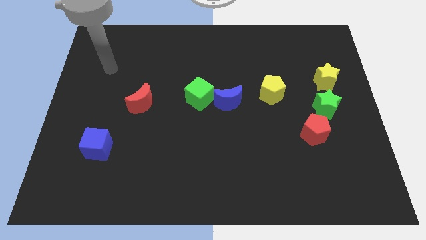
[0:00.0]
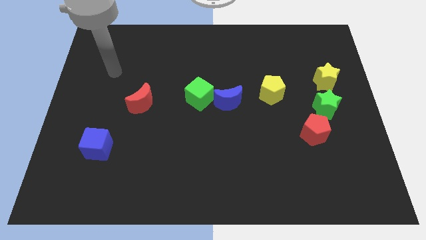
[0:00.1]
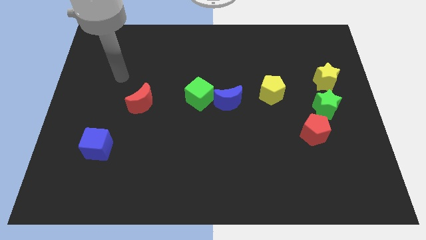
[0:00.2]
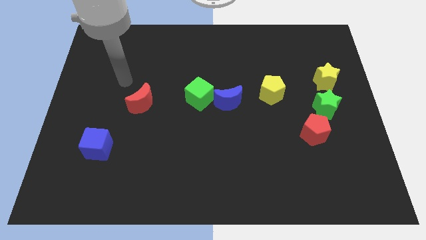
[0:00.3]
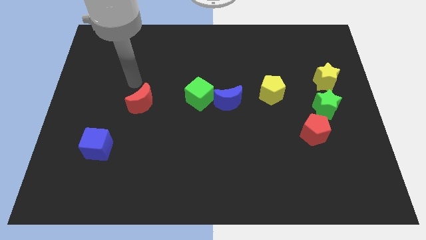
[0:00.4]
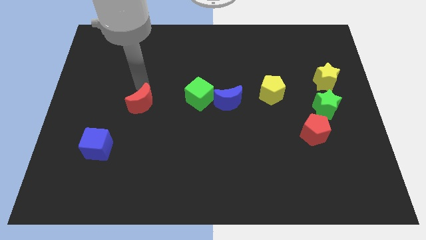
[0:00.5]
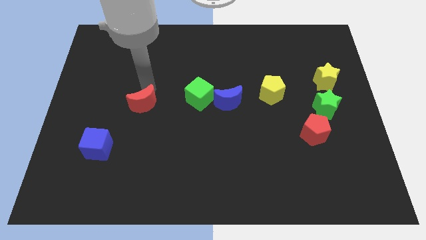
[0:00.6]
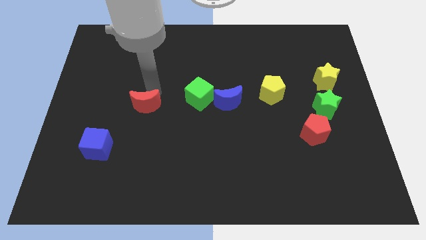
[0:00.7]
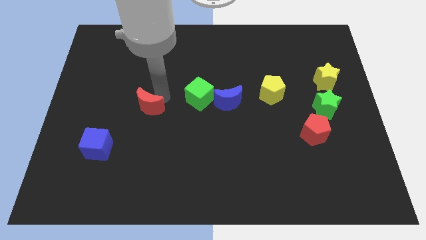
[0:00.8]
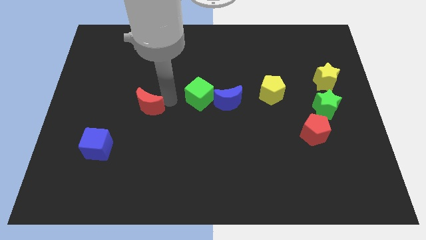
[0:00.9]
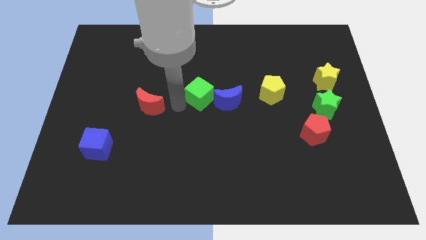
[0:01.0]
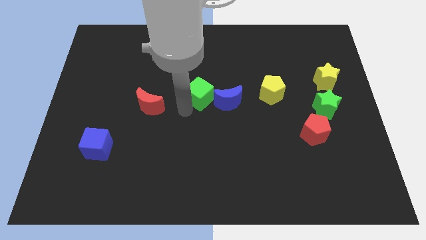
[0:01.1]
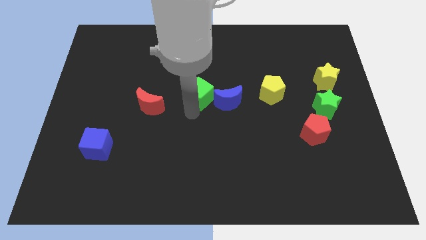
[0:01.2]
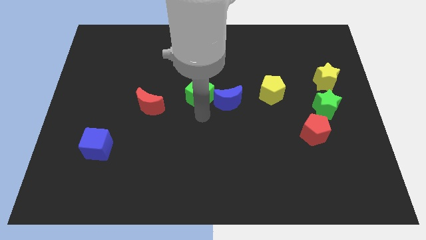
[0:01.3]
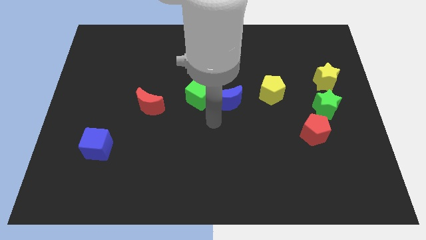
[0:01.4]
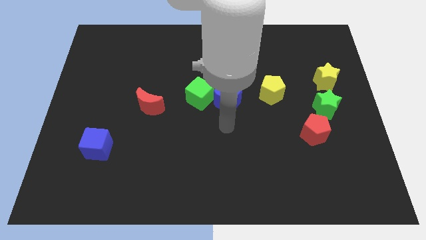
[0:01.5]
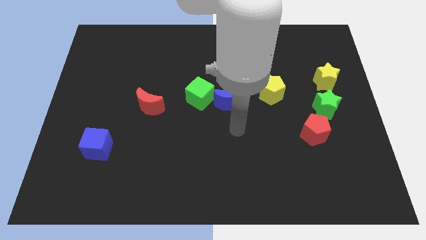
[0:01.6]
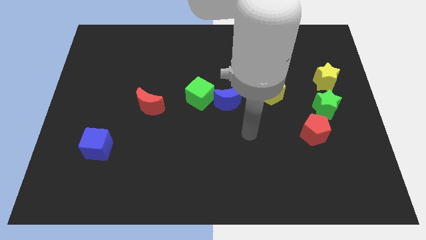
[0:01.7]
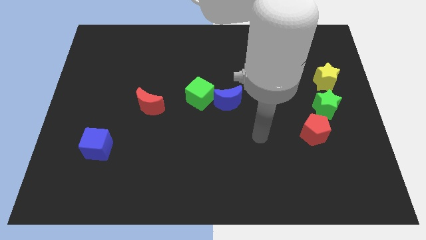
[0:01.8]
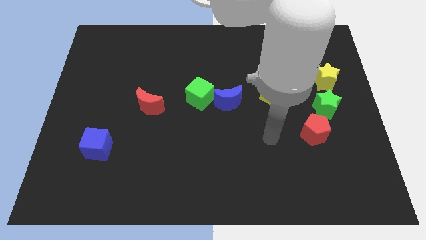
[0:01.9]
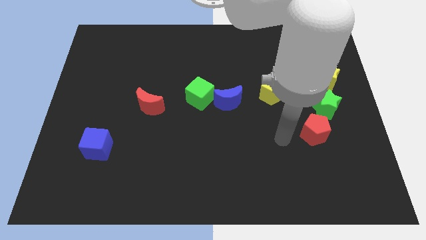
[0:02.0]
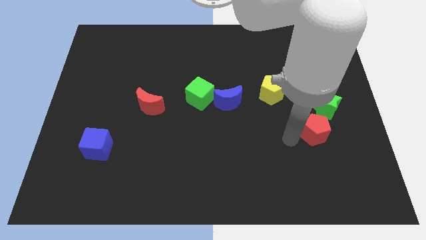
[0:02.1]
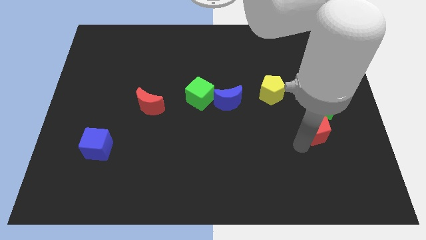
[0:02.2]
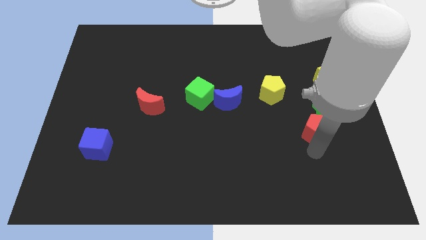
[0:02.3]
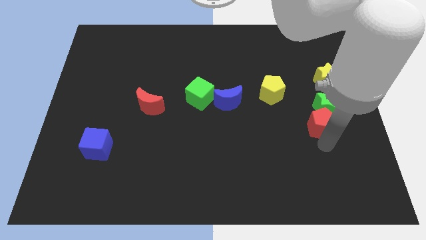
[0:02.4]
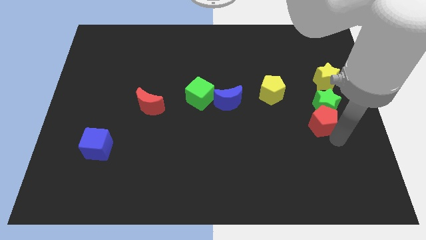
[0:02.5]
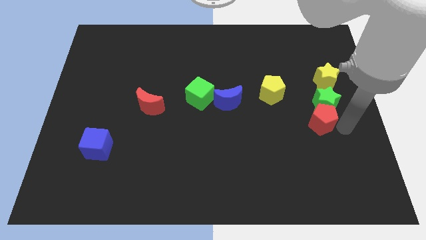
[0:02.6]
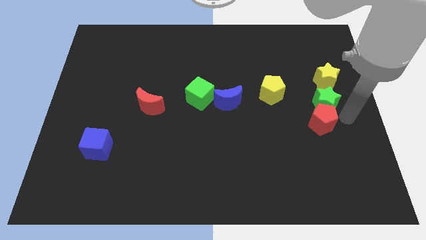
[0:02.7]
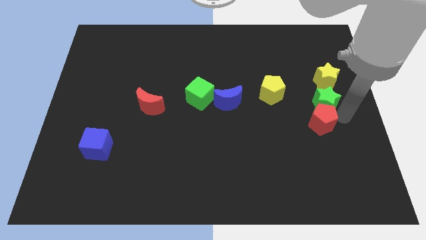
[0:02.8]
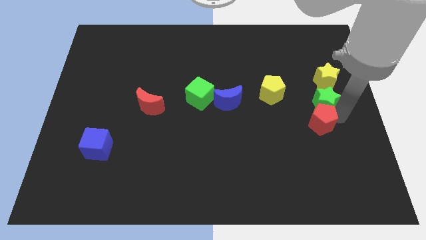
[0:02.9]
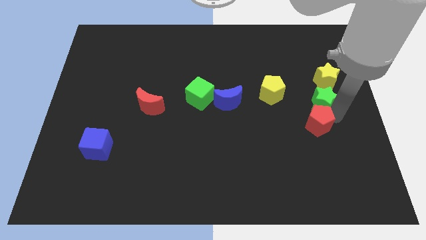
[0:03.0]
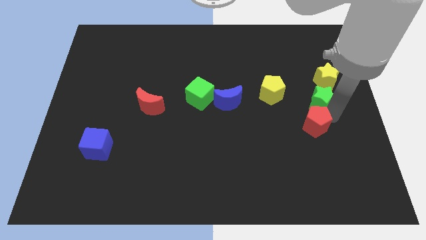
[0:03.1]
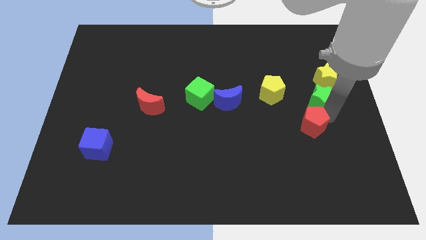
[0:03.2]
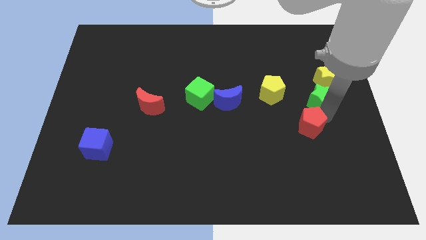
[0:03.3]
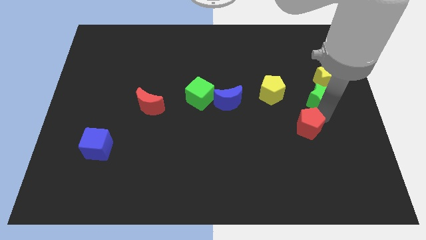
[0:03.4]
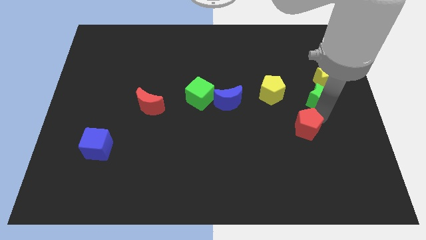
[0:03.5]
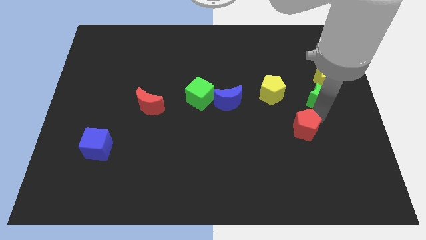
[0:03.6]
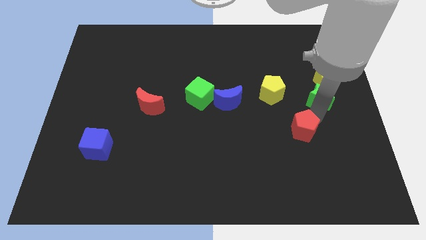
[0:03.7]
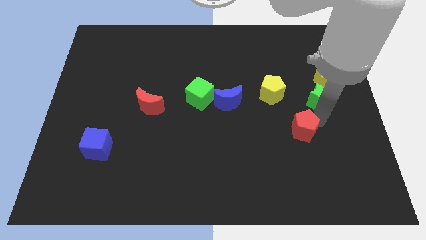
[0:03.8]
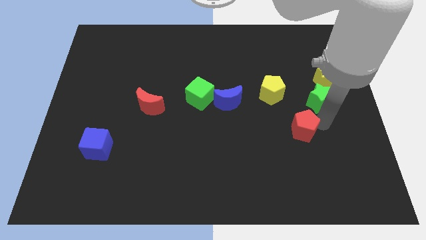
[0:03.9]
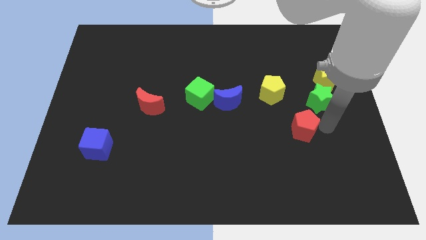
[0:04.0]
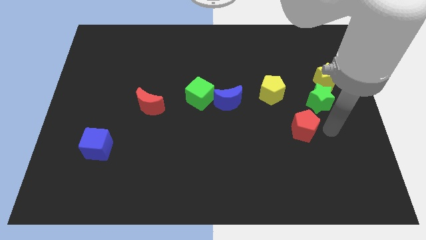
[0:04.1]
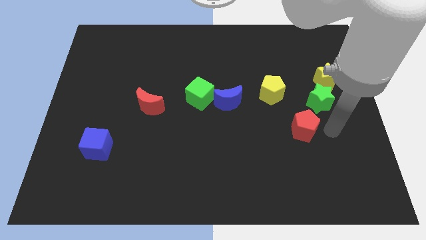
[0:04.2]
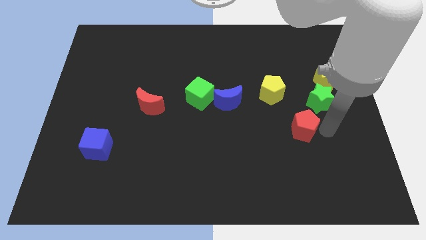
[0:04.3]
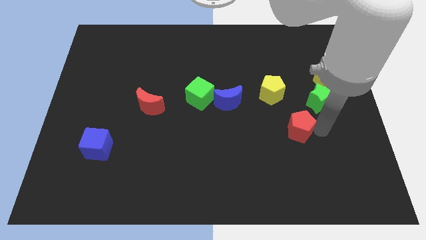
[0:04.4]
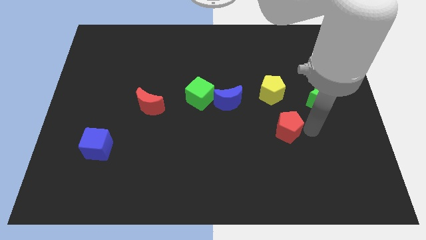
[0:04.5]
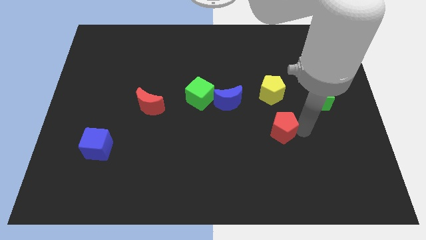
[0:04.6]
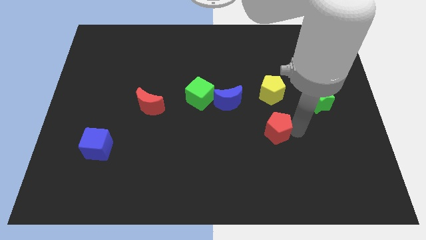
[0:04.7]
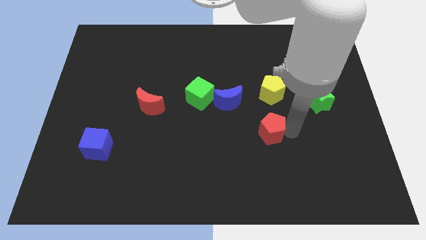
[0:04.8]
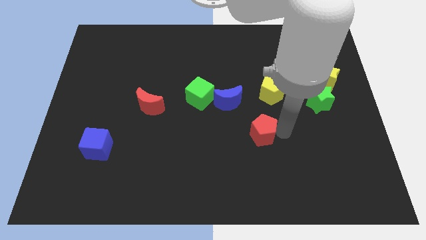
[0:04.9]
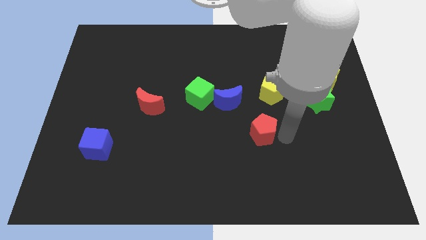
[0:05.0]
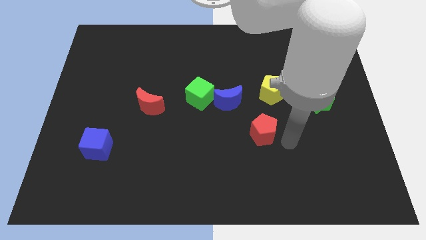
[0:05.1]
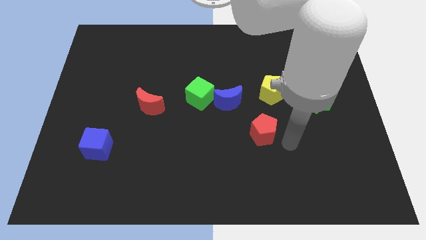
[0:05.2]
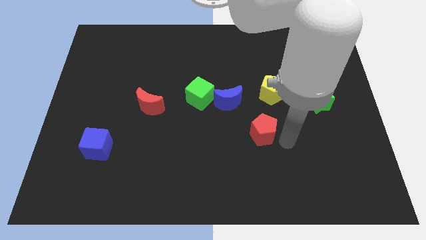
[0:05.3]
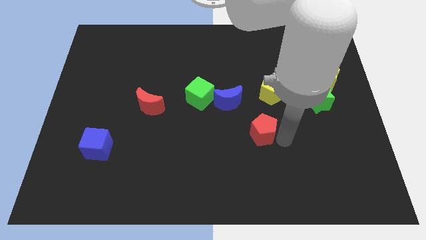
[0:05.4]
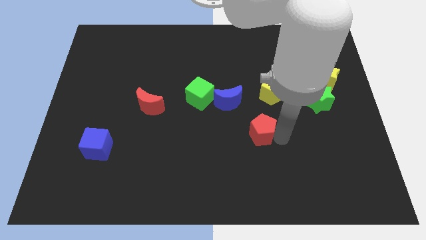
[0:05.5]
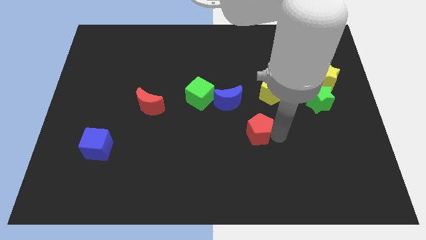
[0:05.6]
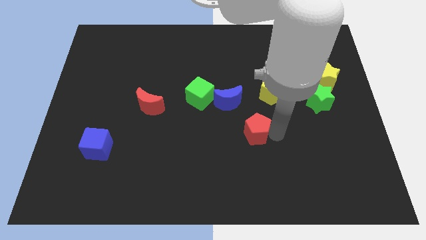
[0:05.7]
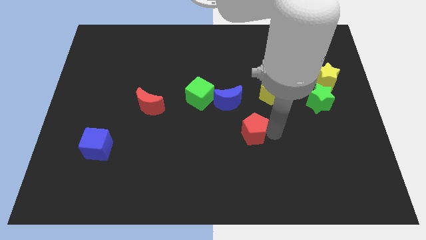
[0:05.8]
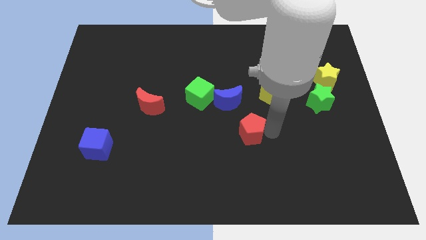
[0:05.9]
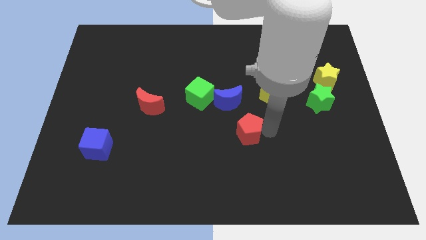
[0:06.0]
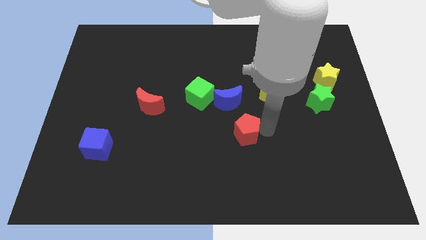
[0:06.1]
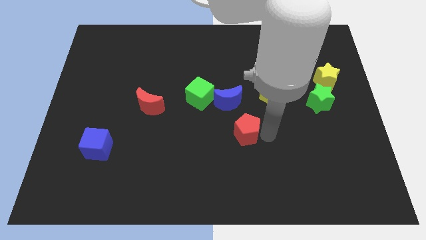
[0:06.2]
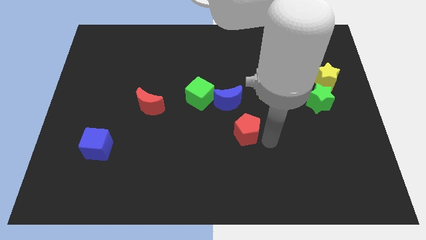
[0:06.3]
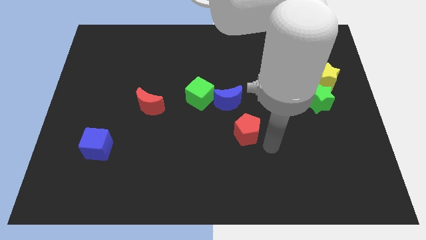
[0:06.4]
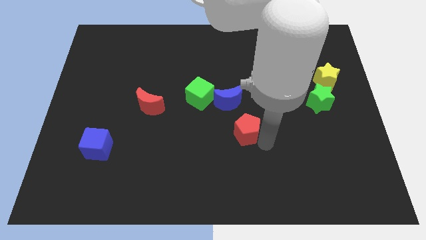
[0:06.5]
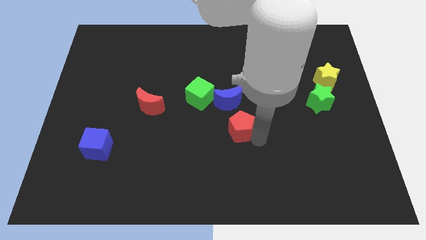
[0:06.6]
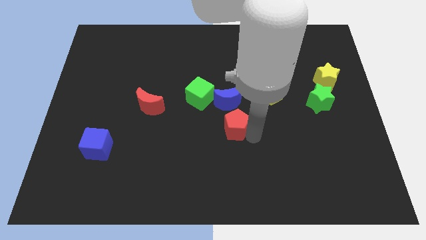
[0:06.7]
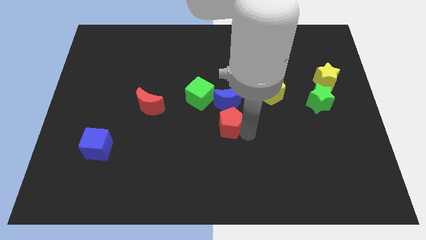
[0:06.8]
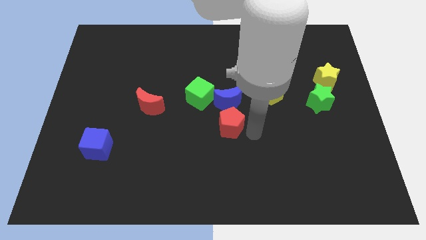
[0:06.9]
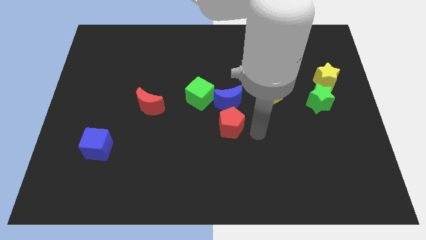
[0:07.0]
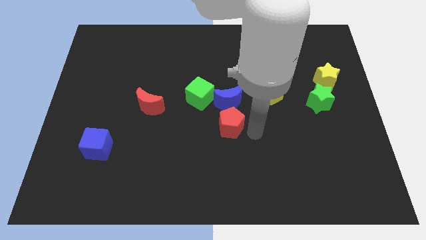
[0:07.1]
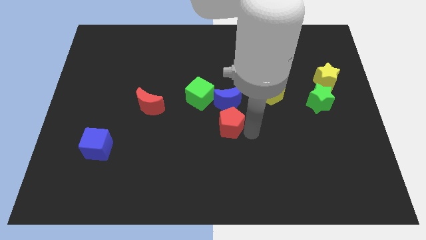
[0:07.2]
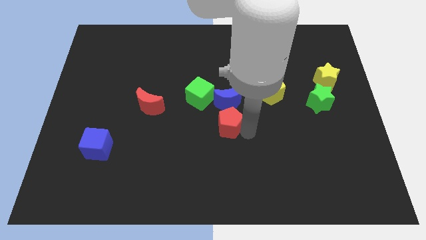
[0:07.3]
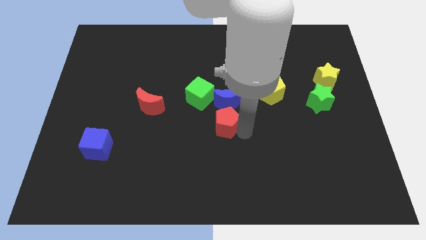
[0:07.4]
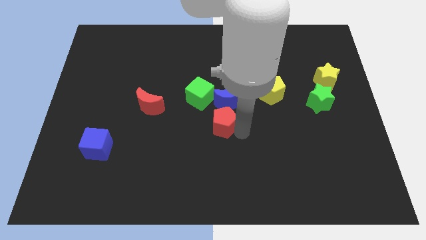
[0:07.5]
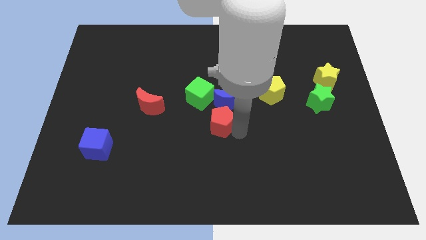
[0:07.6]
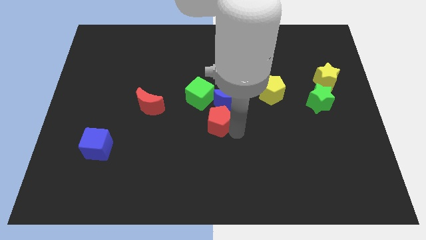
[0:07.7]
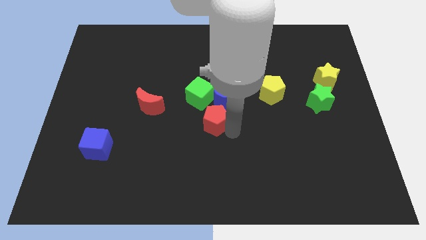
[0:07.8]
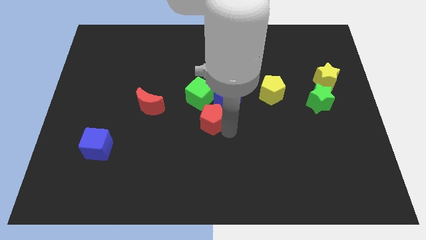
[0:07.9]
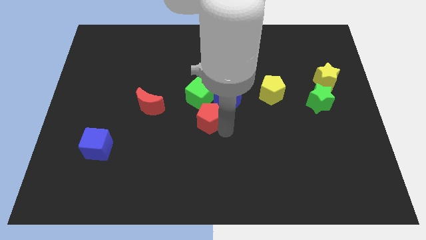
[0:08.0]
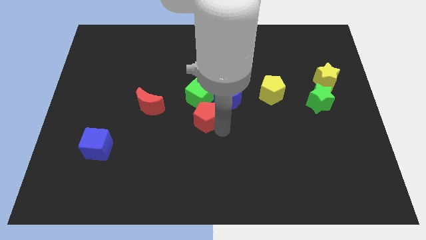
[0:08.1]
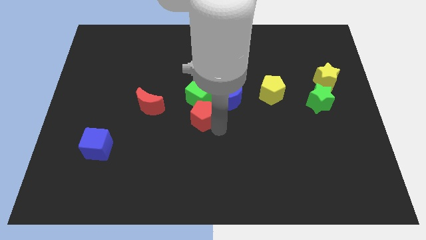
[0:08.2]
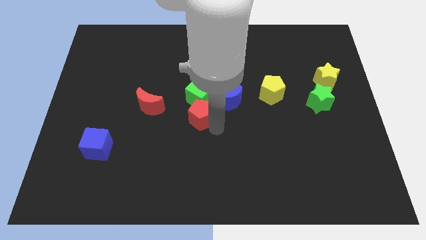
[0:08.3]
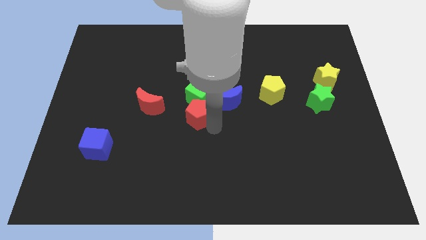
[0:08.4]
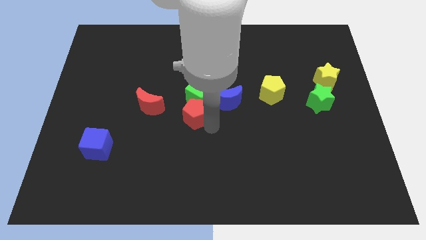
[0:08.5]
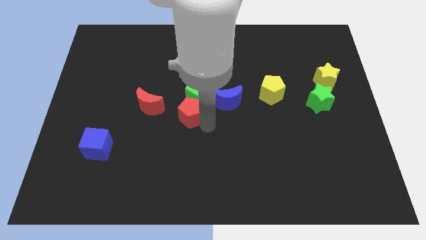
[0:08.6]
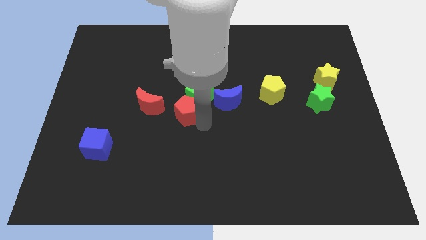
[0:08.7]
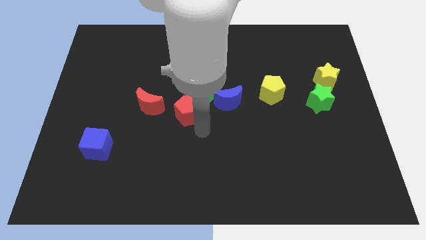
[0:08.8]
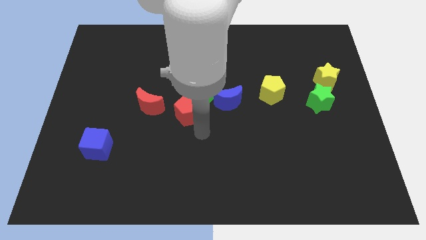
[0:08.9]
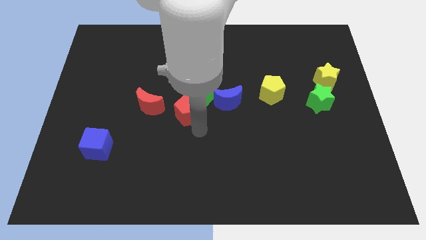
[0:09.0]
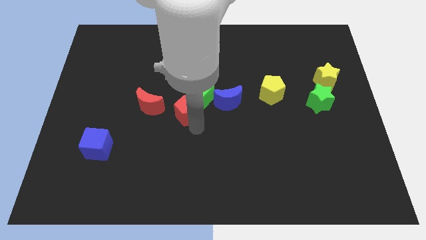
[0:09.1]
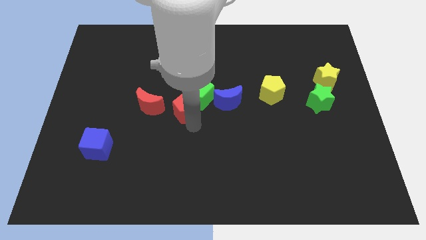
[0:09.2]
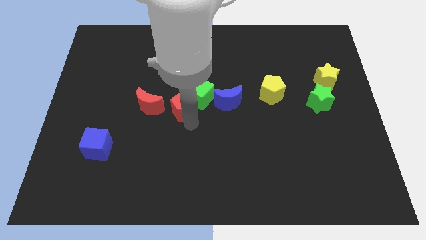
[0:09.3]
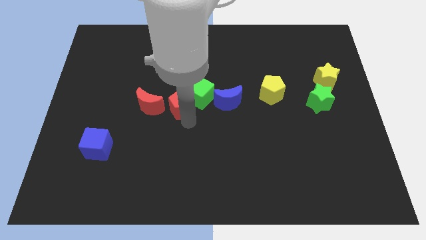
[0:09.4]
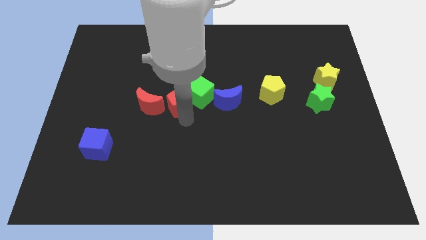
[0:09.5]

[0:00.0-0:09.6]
put the red pentagon to the top right of the red moon
